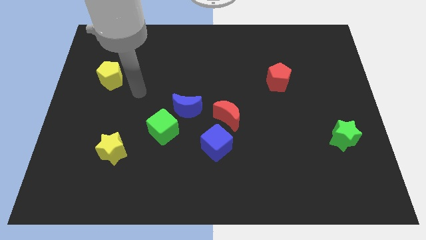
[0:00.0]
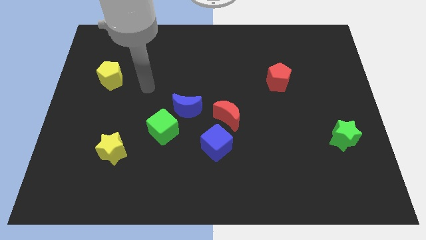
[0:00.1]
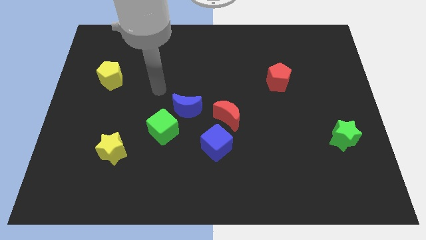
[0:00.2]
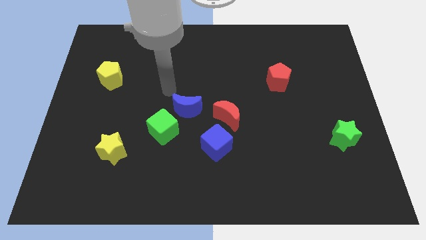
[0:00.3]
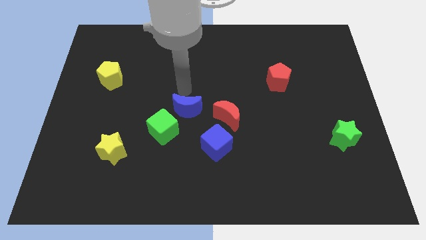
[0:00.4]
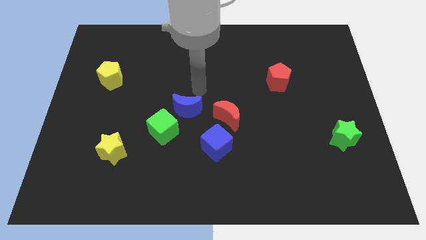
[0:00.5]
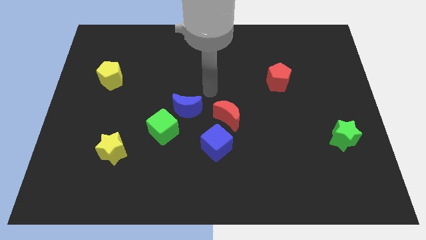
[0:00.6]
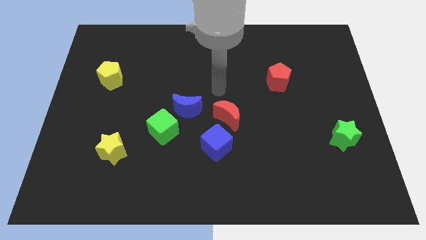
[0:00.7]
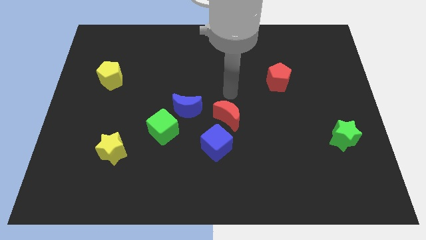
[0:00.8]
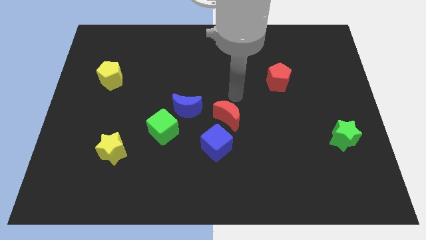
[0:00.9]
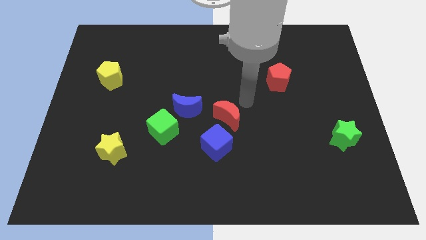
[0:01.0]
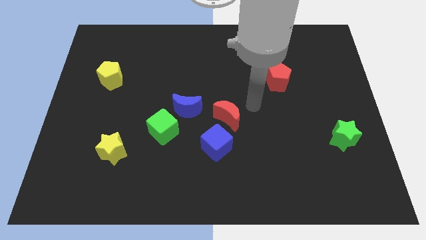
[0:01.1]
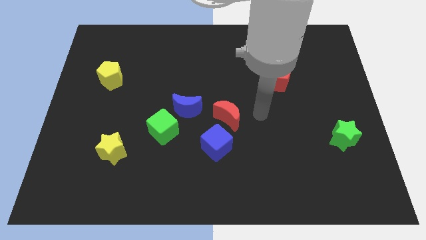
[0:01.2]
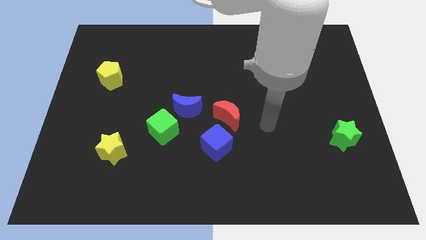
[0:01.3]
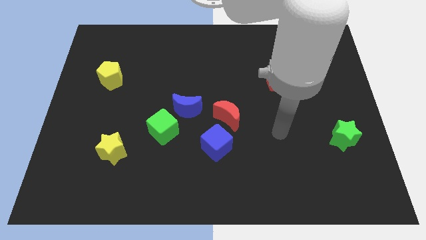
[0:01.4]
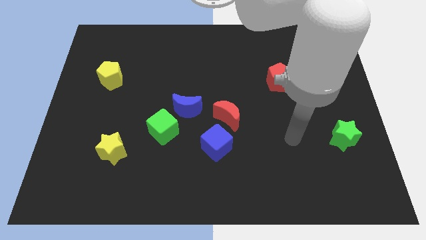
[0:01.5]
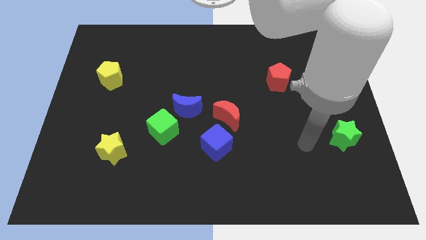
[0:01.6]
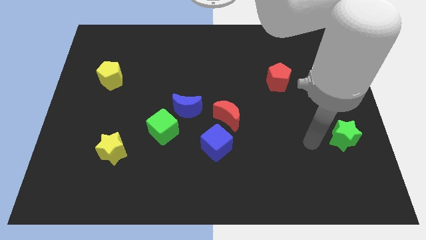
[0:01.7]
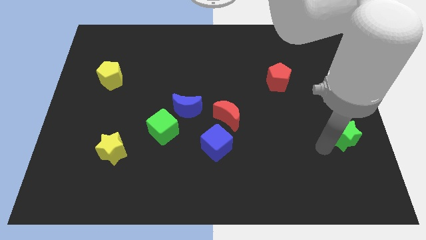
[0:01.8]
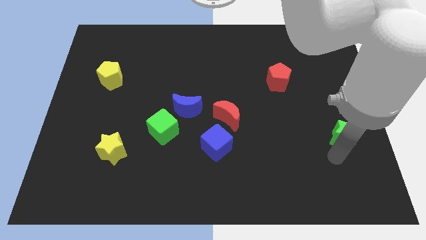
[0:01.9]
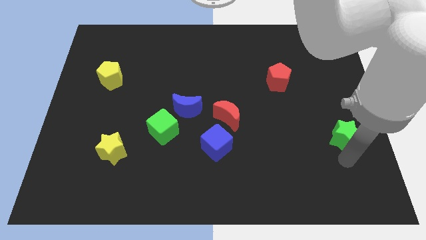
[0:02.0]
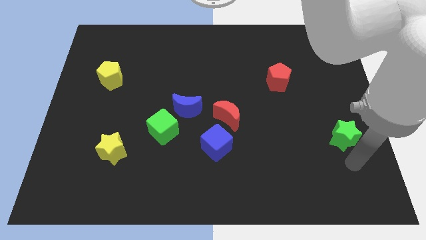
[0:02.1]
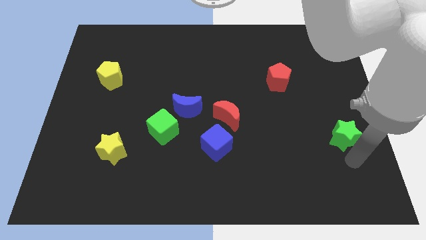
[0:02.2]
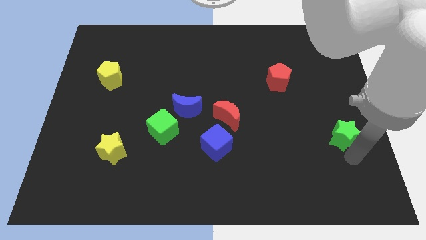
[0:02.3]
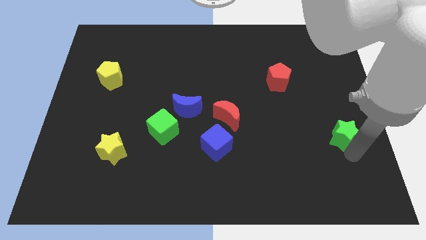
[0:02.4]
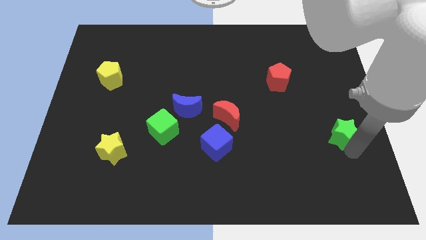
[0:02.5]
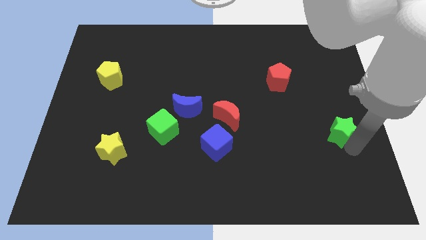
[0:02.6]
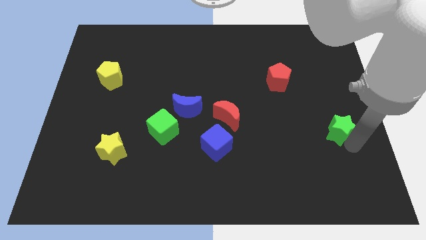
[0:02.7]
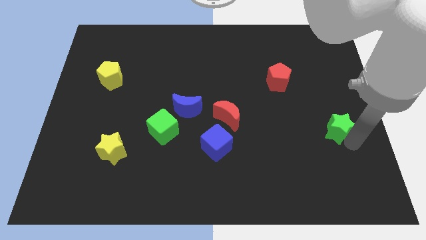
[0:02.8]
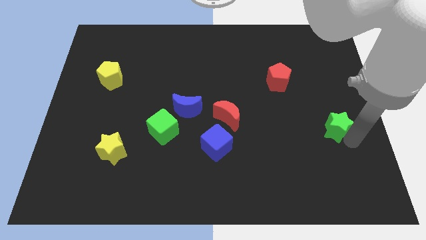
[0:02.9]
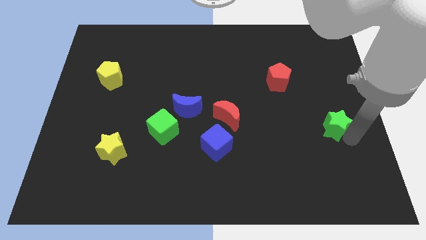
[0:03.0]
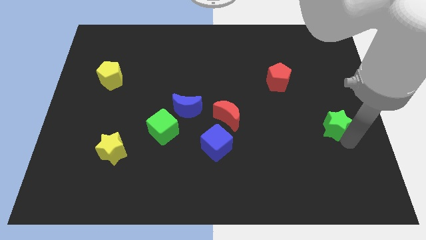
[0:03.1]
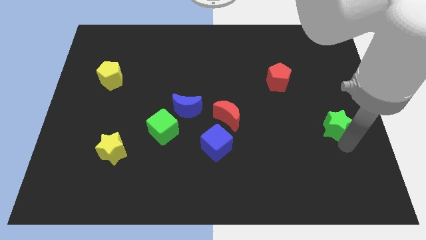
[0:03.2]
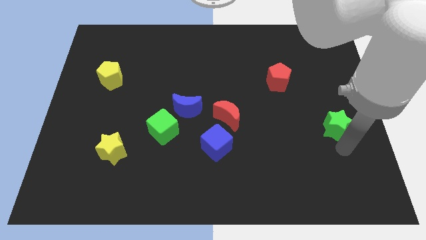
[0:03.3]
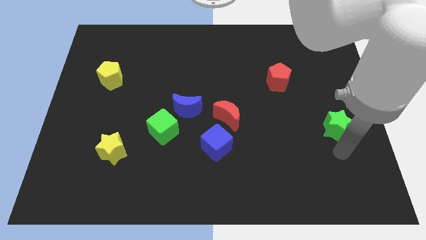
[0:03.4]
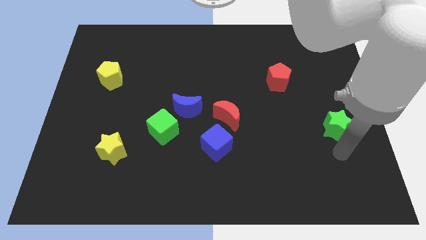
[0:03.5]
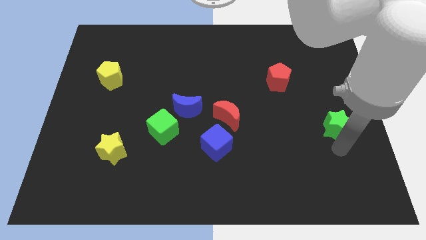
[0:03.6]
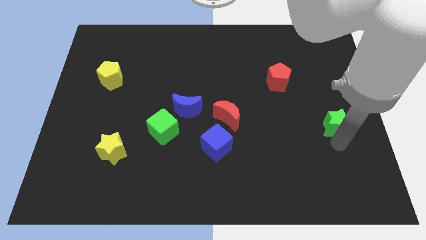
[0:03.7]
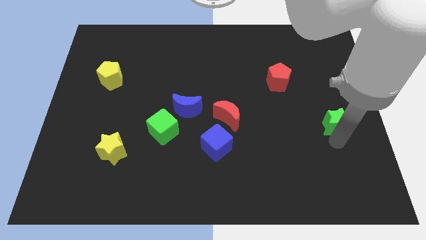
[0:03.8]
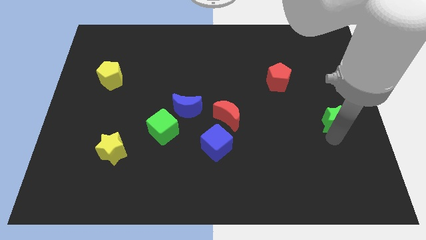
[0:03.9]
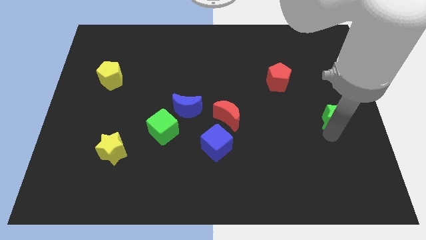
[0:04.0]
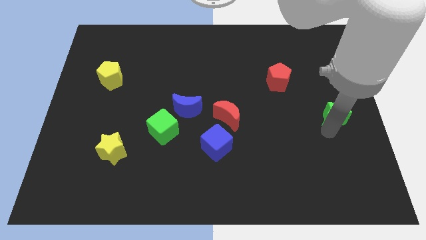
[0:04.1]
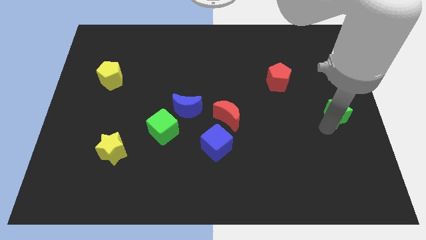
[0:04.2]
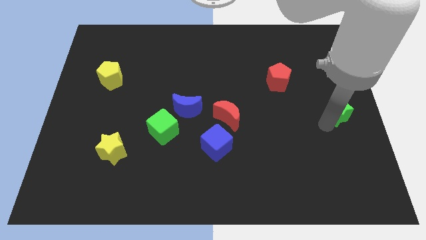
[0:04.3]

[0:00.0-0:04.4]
slightly move the green star upwards

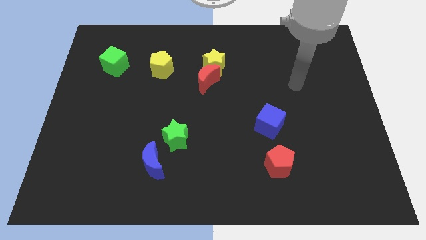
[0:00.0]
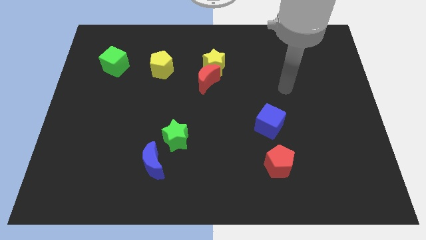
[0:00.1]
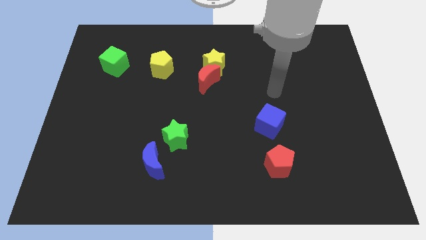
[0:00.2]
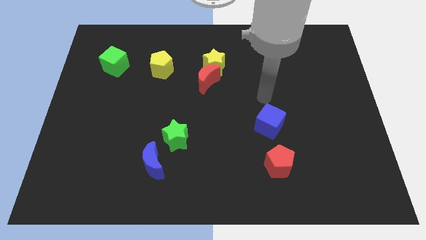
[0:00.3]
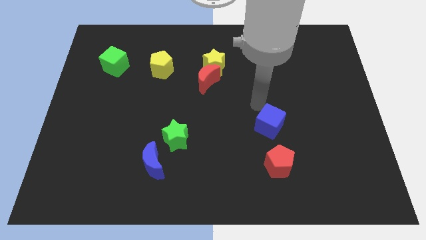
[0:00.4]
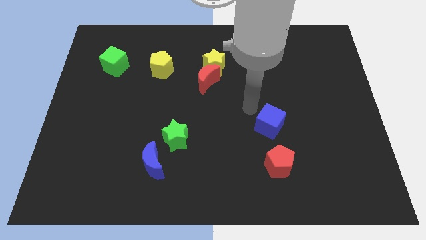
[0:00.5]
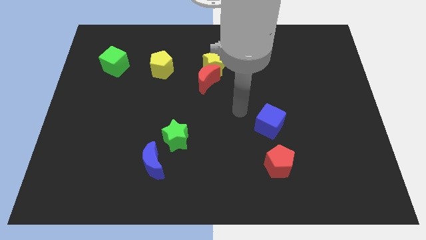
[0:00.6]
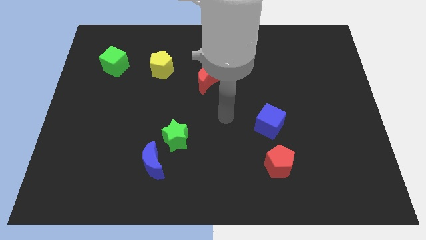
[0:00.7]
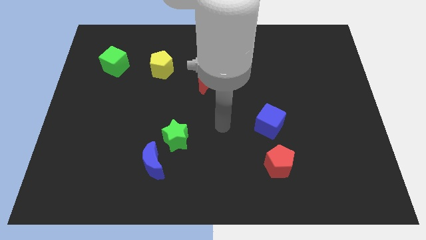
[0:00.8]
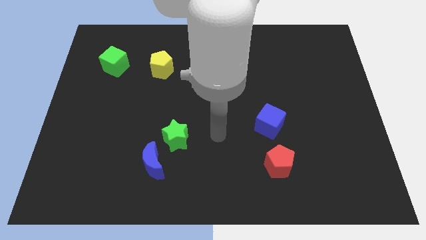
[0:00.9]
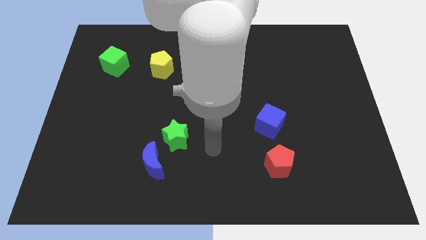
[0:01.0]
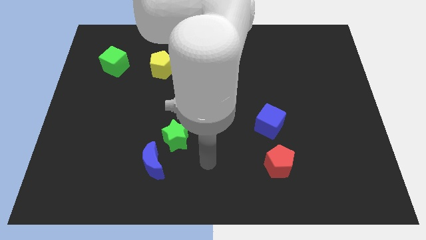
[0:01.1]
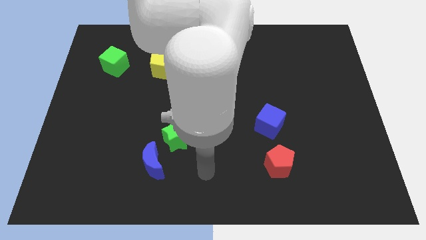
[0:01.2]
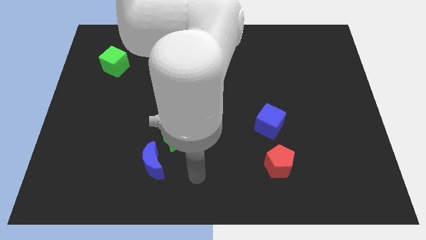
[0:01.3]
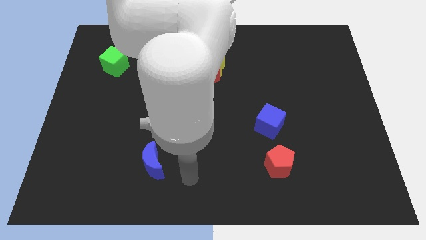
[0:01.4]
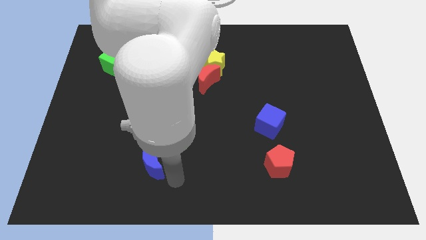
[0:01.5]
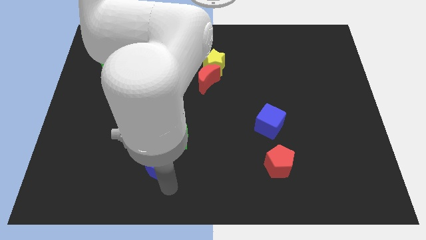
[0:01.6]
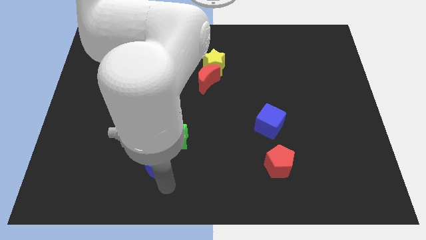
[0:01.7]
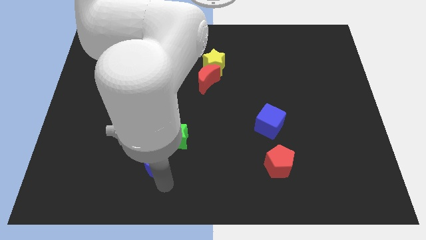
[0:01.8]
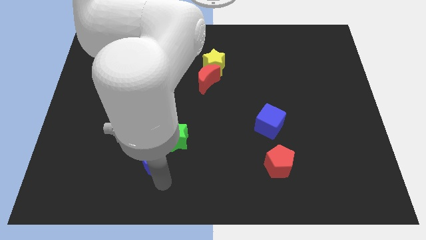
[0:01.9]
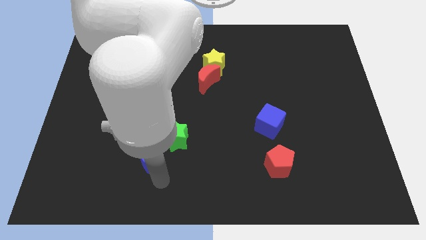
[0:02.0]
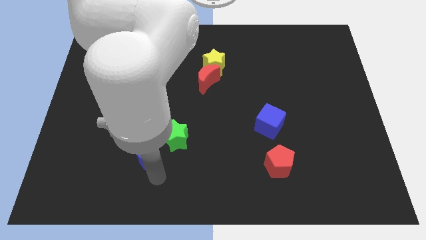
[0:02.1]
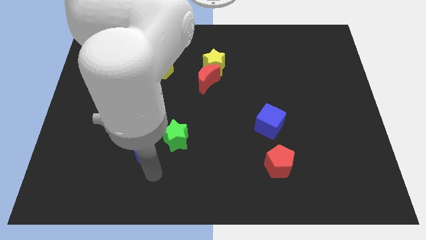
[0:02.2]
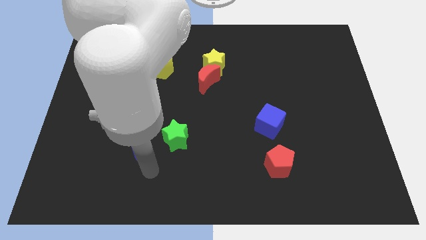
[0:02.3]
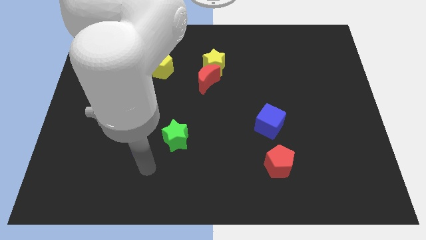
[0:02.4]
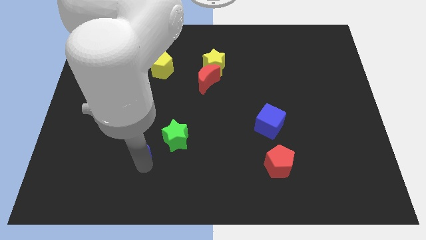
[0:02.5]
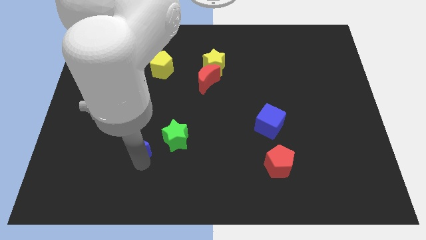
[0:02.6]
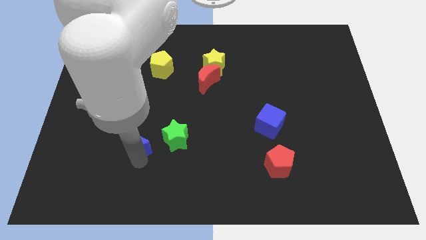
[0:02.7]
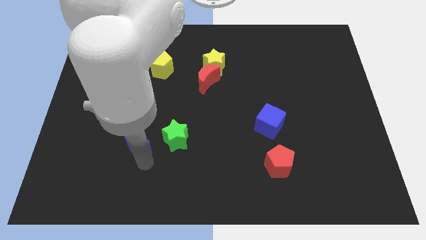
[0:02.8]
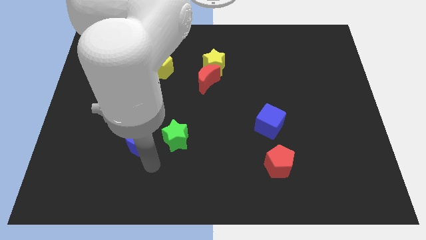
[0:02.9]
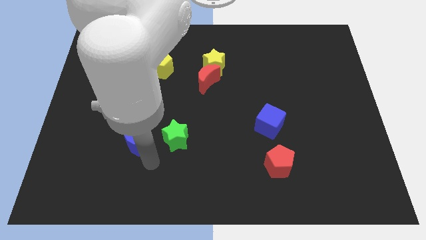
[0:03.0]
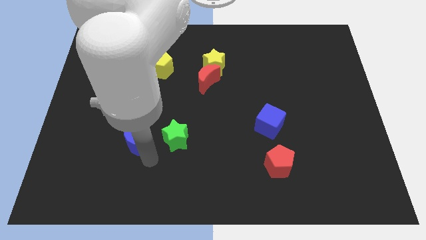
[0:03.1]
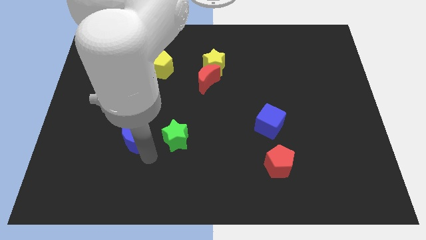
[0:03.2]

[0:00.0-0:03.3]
push the blue moon upwards and to the left diagonally a little bit

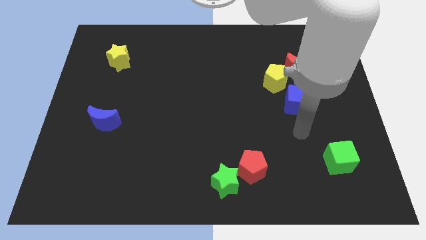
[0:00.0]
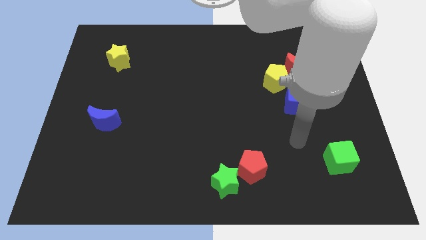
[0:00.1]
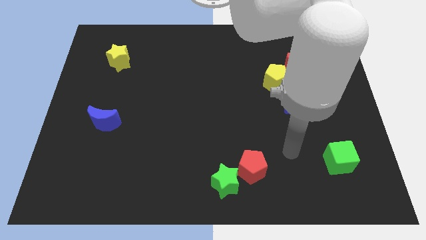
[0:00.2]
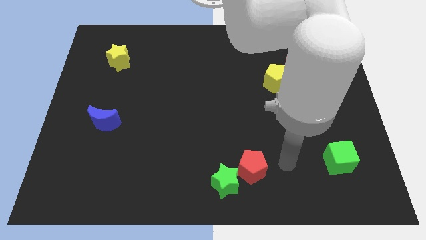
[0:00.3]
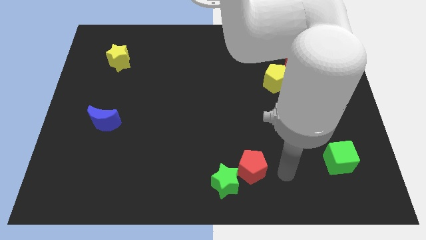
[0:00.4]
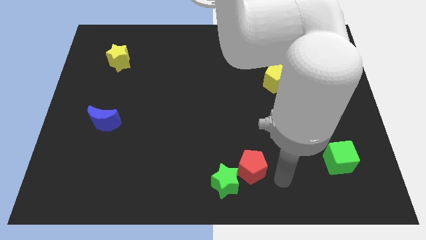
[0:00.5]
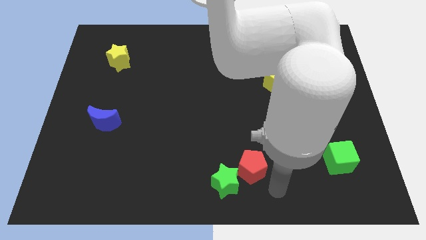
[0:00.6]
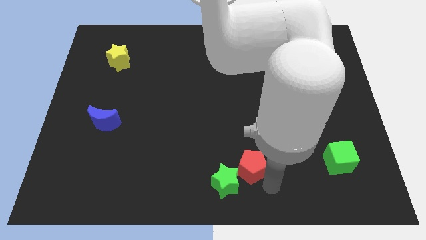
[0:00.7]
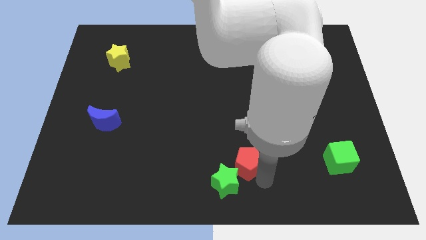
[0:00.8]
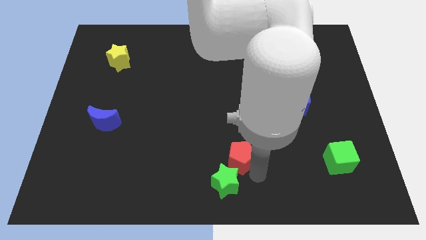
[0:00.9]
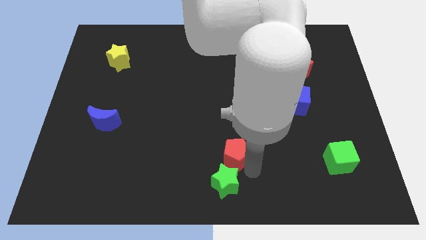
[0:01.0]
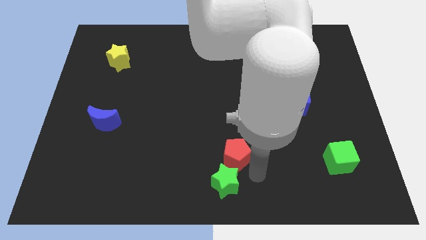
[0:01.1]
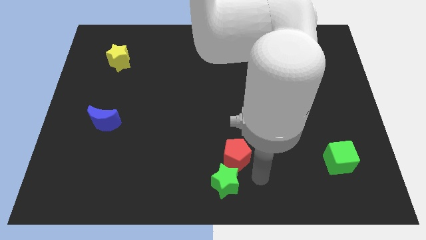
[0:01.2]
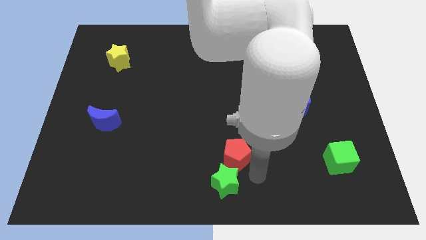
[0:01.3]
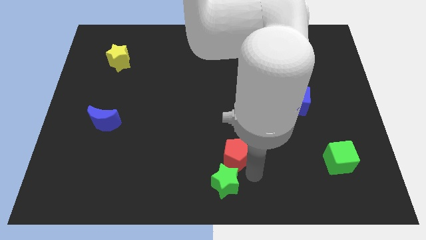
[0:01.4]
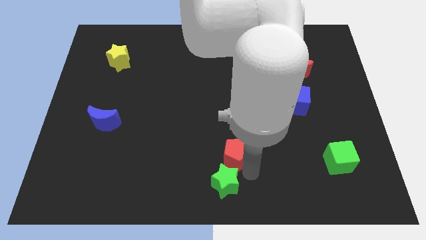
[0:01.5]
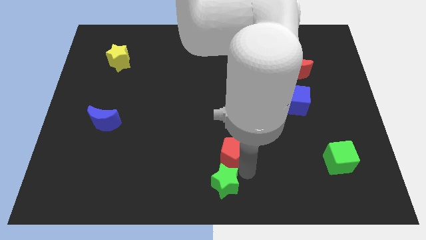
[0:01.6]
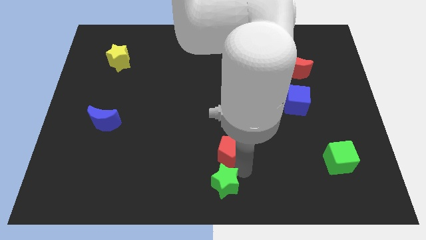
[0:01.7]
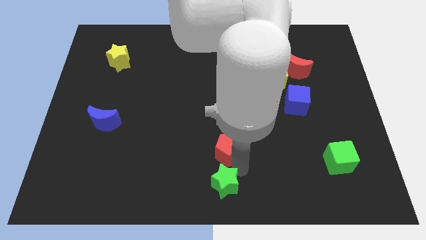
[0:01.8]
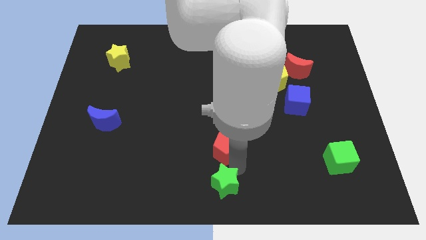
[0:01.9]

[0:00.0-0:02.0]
slide the red pentagon up and to the left a bit
